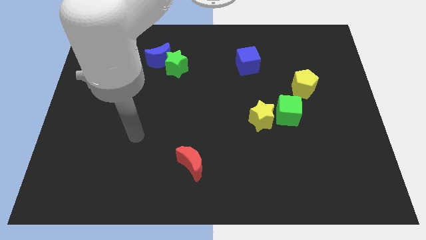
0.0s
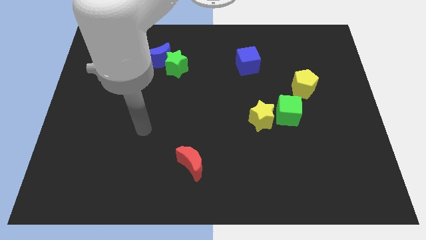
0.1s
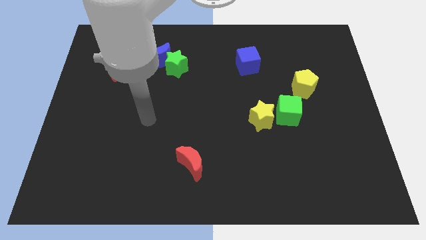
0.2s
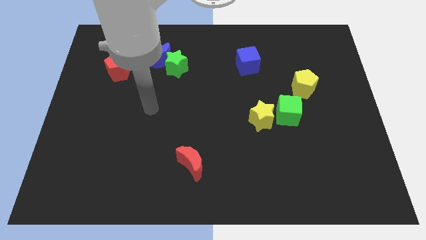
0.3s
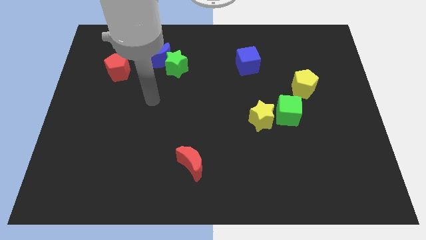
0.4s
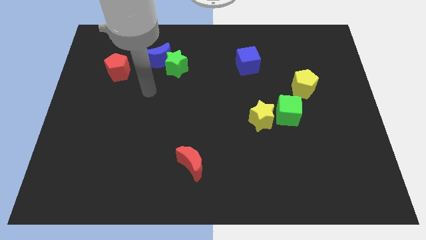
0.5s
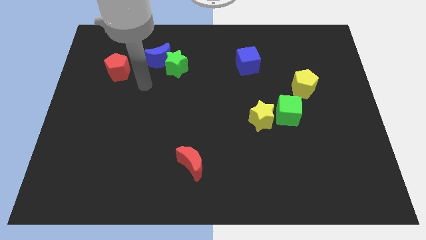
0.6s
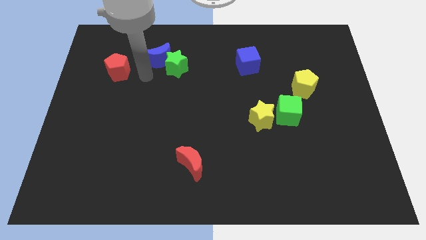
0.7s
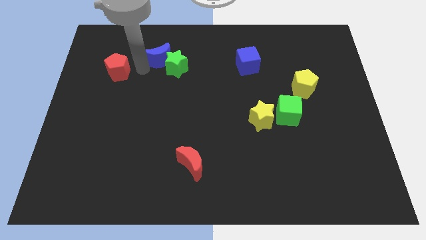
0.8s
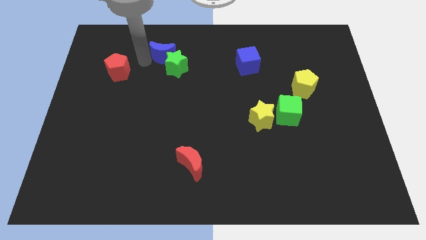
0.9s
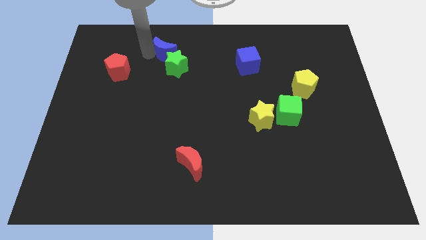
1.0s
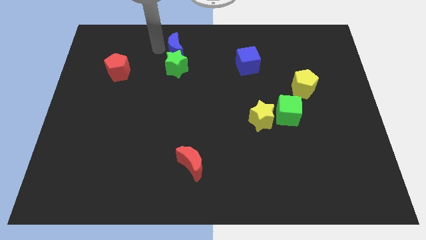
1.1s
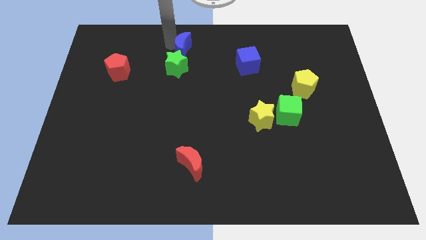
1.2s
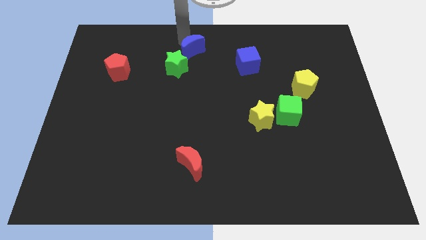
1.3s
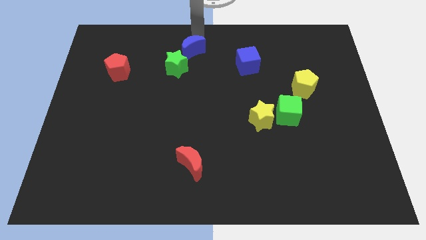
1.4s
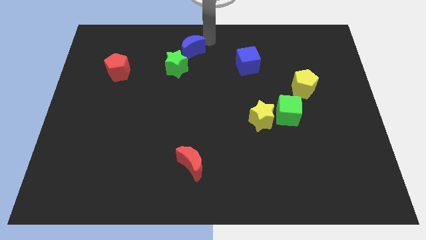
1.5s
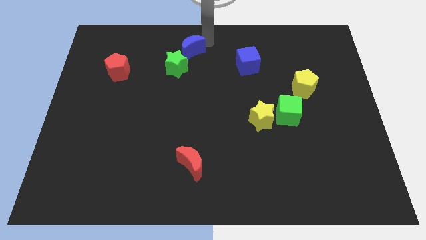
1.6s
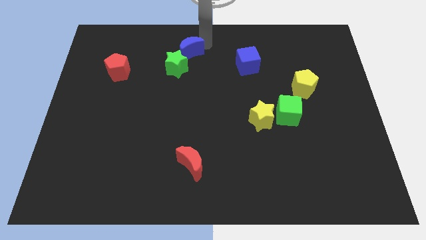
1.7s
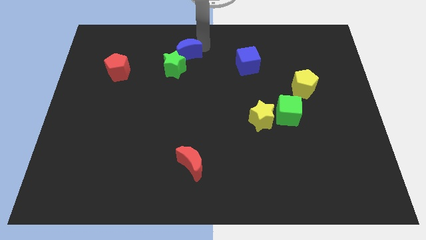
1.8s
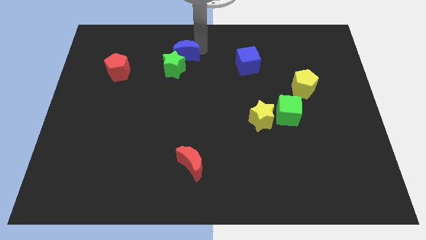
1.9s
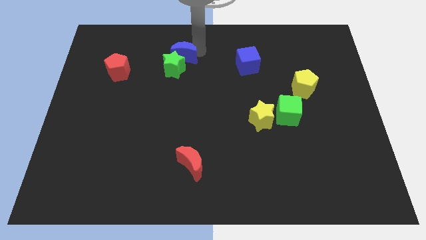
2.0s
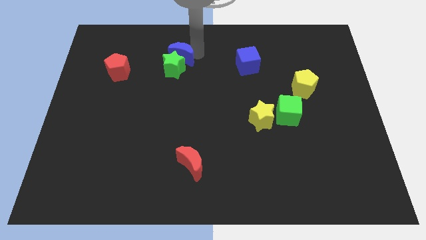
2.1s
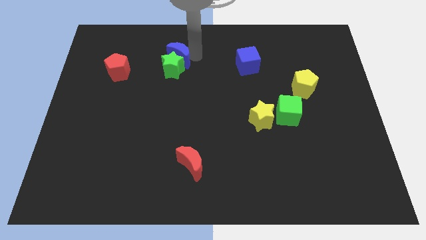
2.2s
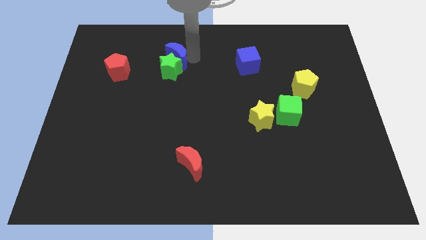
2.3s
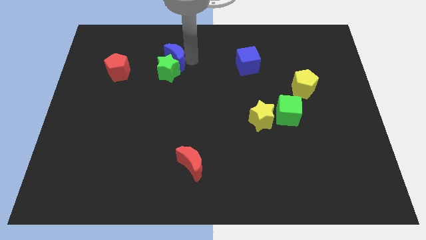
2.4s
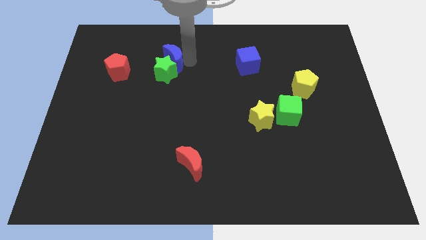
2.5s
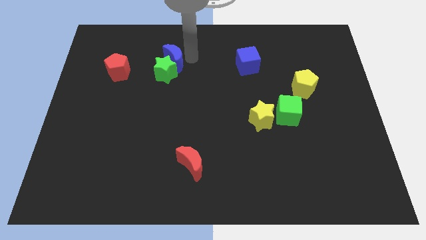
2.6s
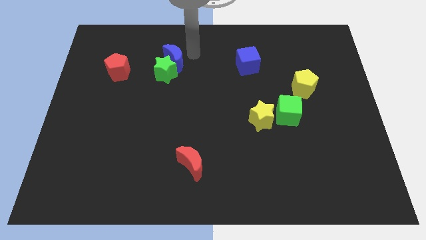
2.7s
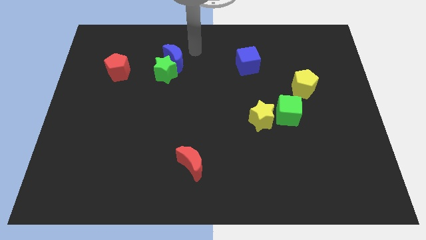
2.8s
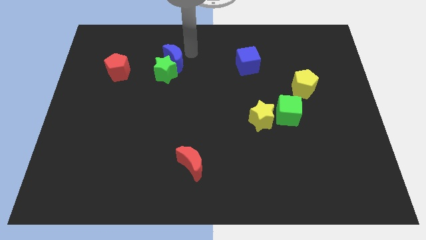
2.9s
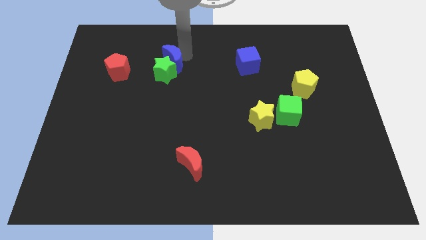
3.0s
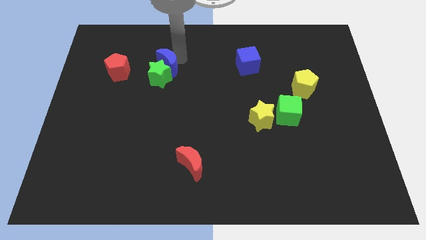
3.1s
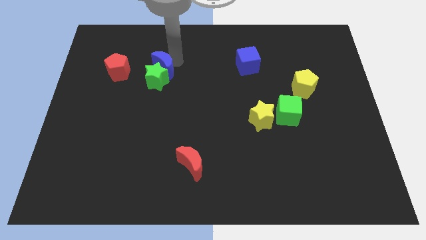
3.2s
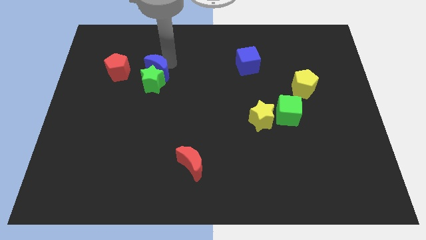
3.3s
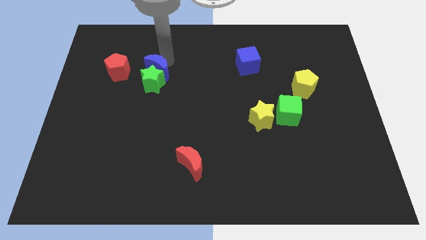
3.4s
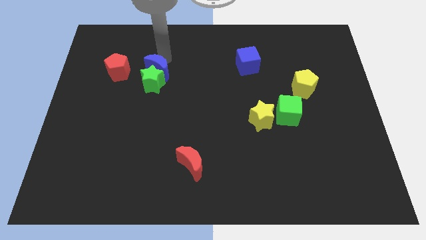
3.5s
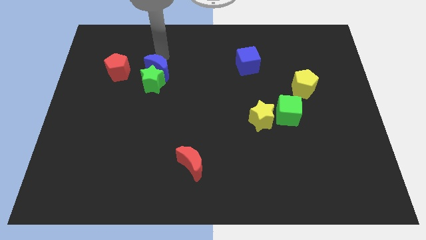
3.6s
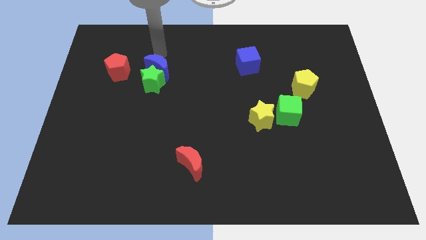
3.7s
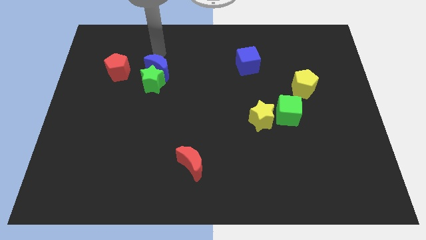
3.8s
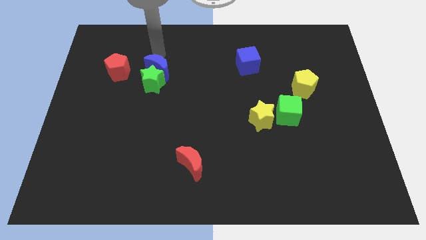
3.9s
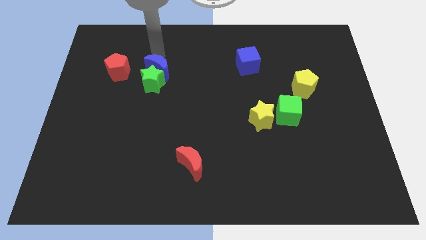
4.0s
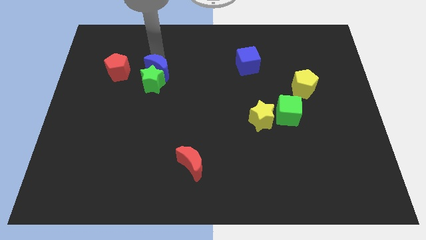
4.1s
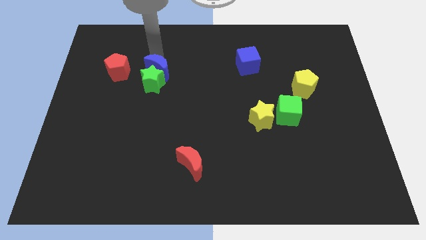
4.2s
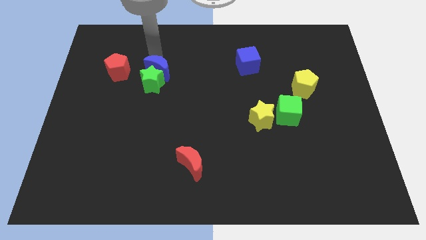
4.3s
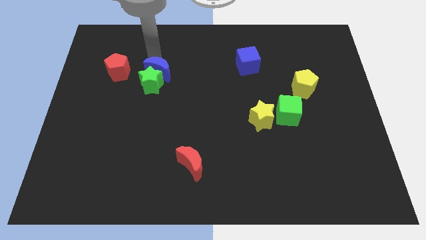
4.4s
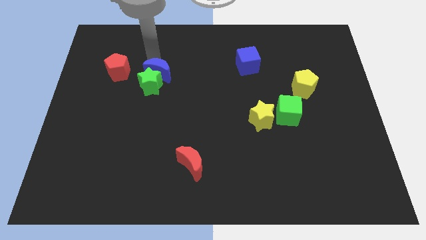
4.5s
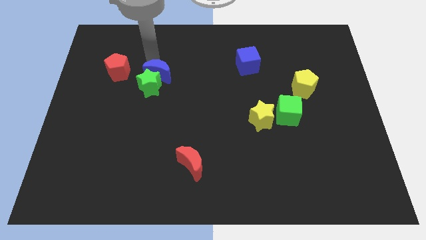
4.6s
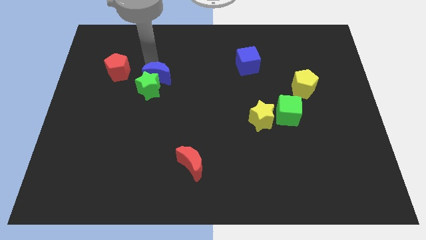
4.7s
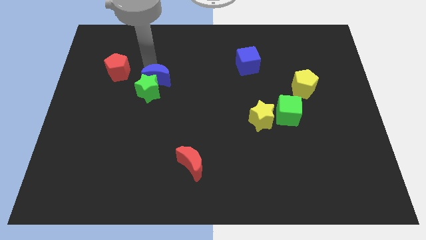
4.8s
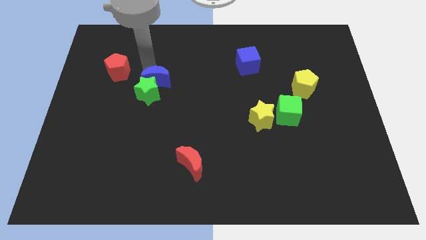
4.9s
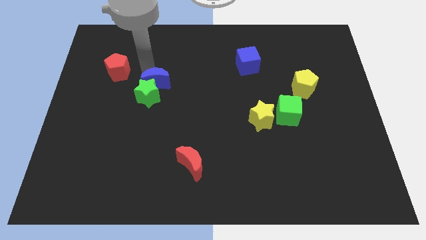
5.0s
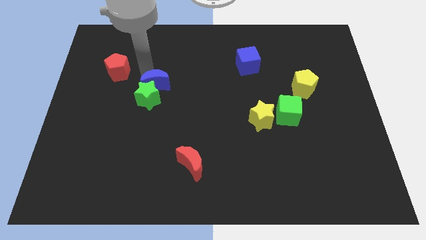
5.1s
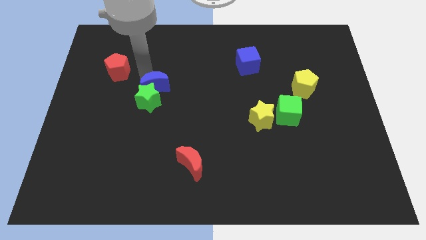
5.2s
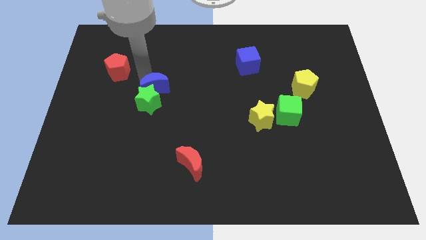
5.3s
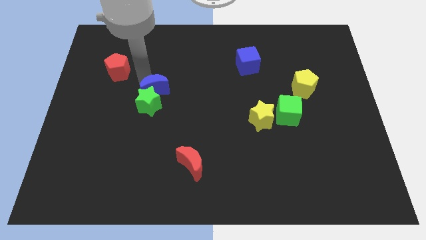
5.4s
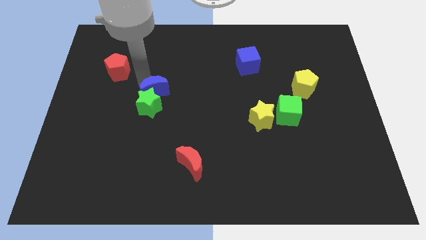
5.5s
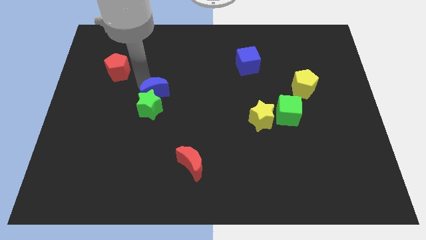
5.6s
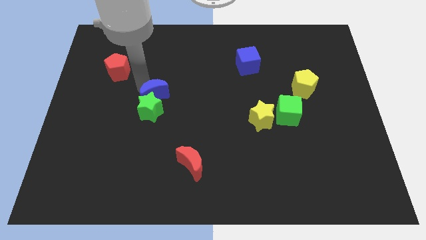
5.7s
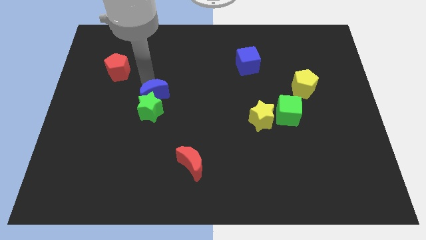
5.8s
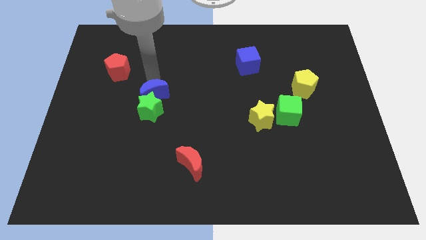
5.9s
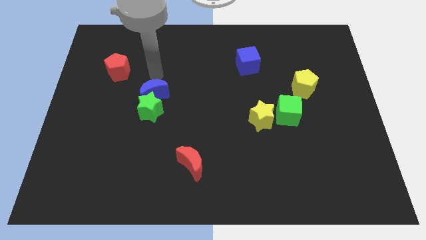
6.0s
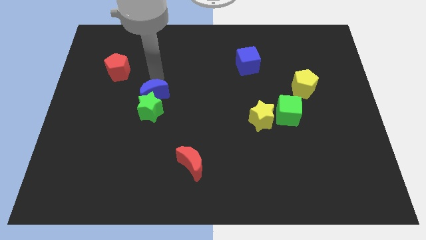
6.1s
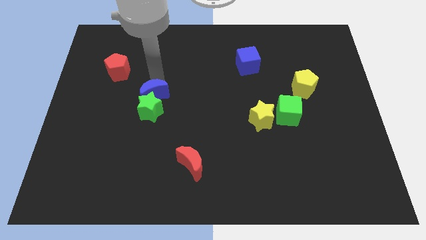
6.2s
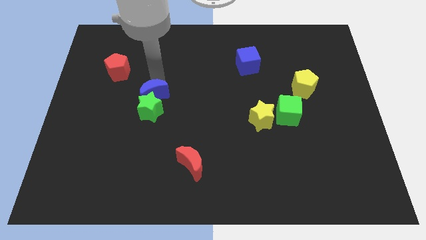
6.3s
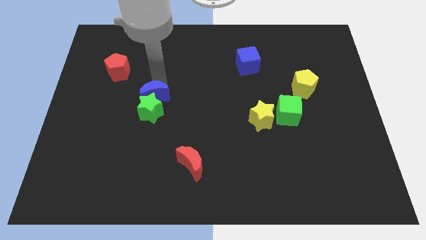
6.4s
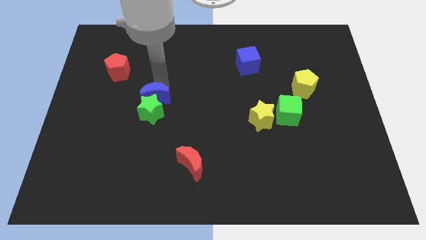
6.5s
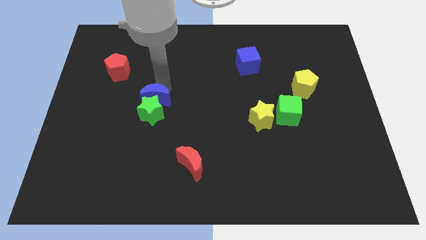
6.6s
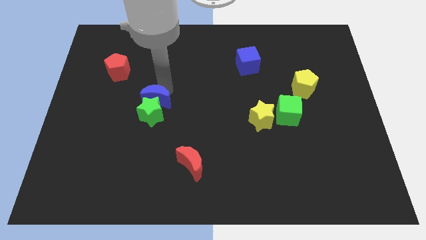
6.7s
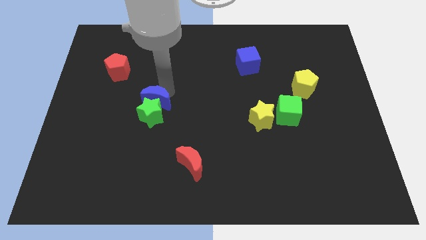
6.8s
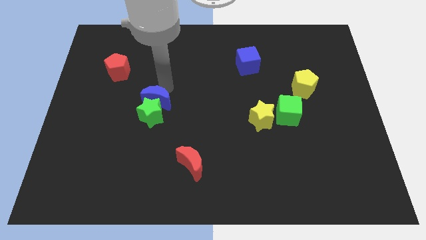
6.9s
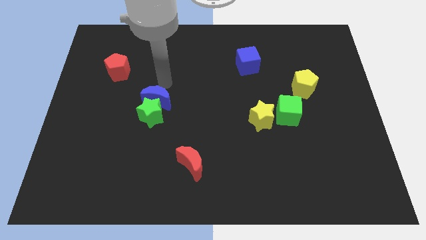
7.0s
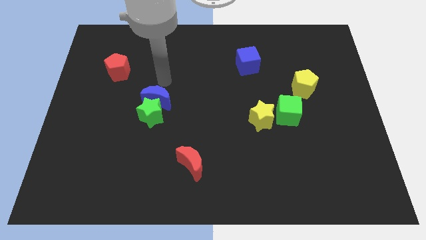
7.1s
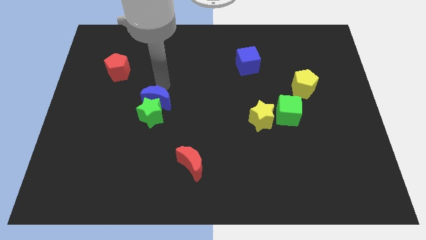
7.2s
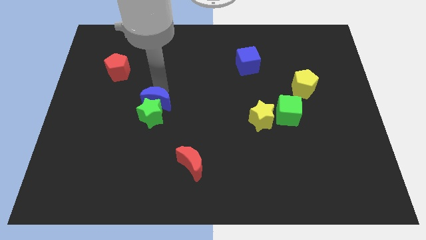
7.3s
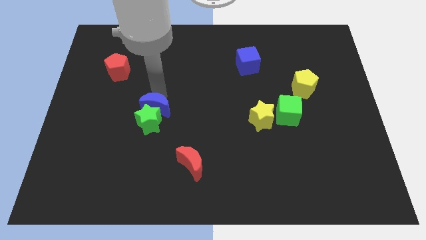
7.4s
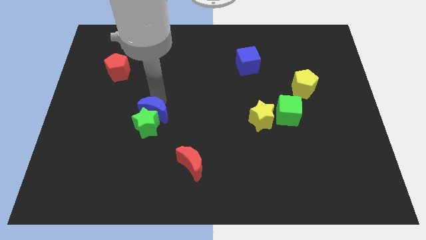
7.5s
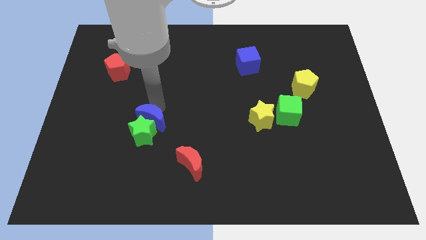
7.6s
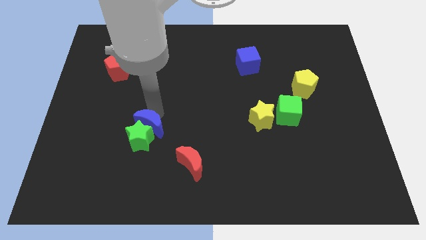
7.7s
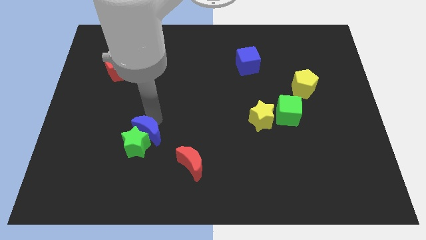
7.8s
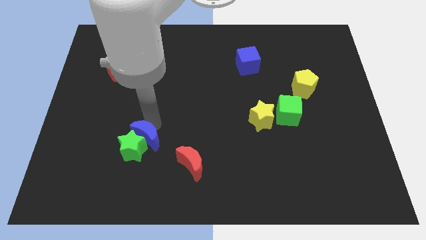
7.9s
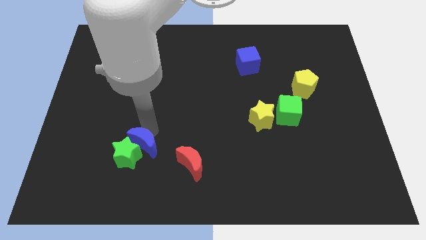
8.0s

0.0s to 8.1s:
push the blue moon left of the red moon
